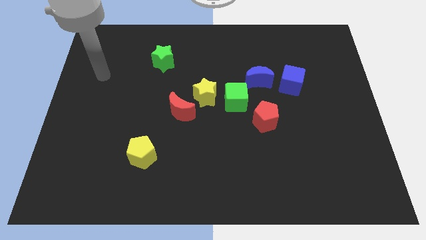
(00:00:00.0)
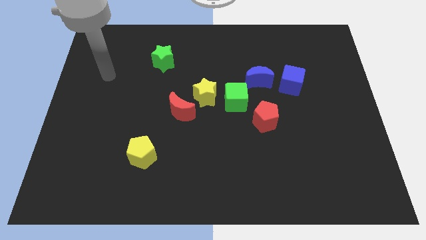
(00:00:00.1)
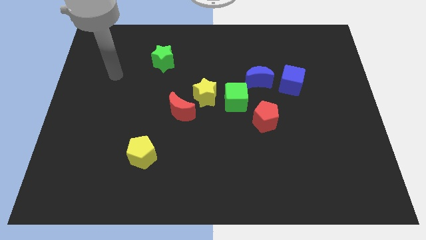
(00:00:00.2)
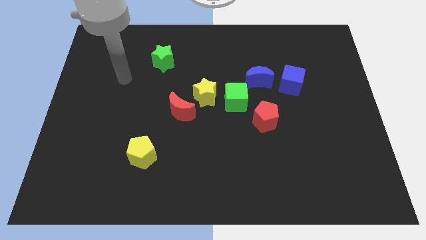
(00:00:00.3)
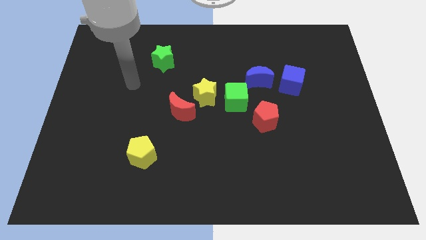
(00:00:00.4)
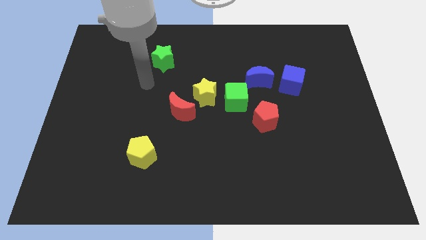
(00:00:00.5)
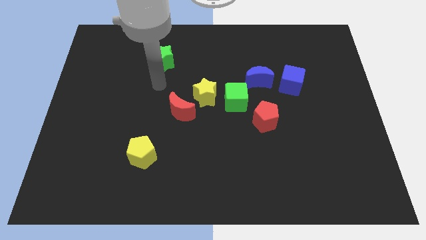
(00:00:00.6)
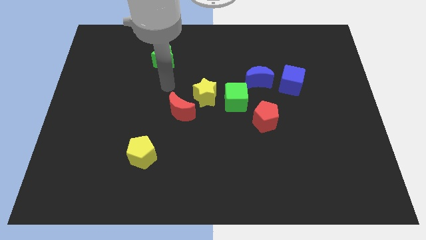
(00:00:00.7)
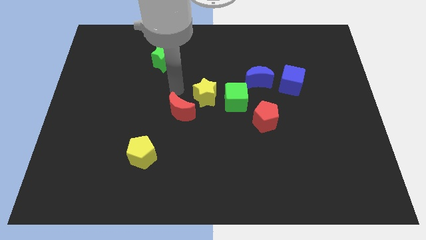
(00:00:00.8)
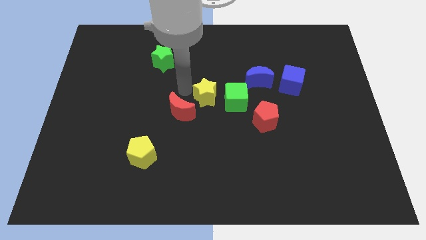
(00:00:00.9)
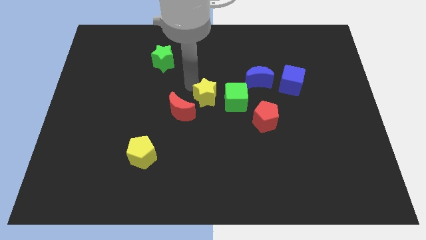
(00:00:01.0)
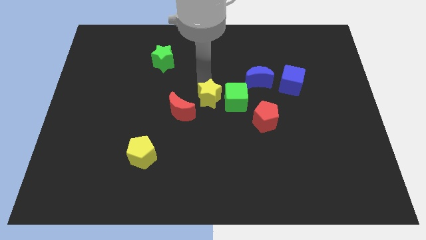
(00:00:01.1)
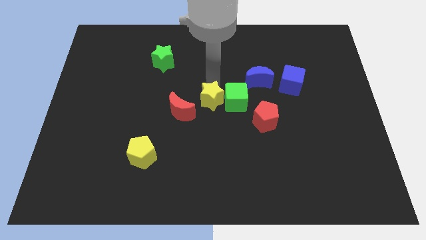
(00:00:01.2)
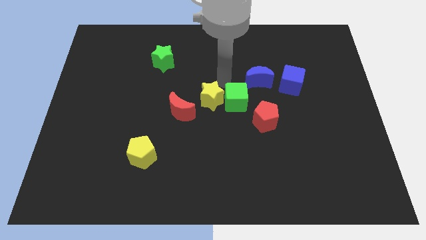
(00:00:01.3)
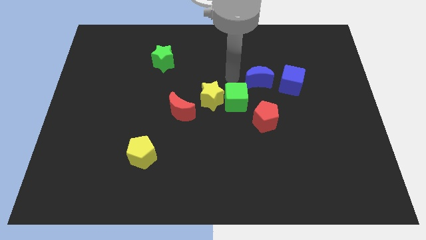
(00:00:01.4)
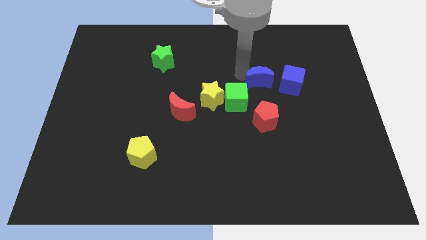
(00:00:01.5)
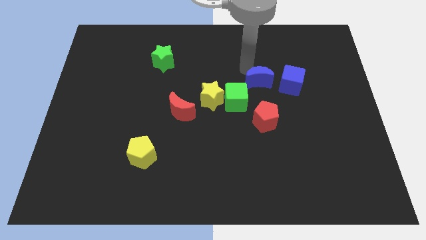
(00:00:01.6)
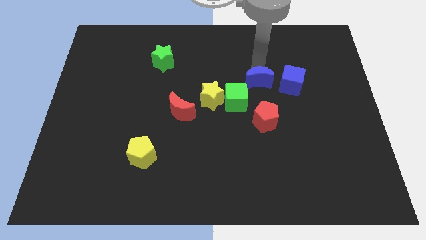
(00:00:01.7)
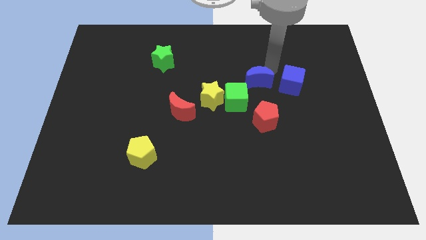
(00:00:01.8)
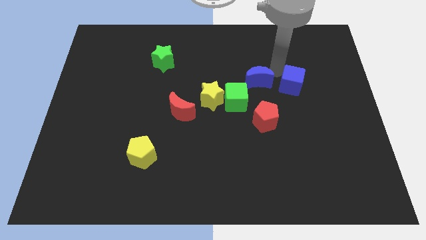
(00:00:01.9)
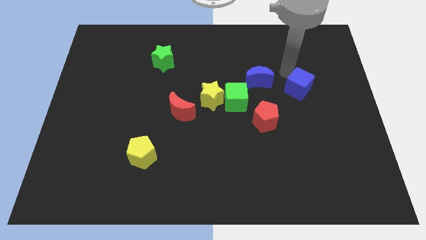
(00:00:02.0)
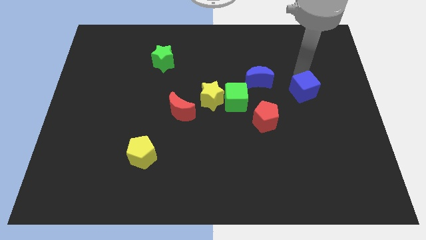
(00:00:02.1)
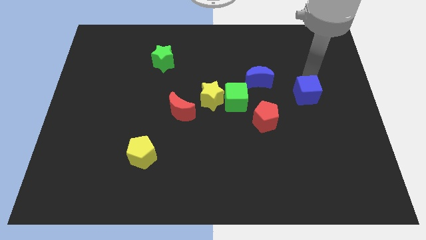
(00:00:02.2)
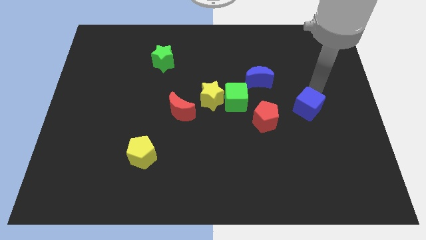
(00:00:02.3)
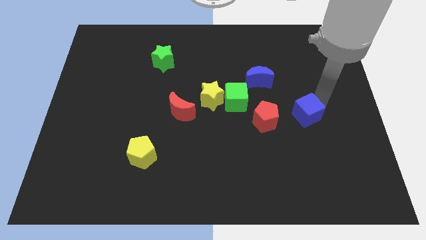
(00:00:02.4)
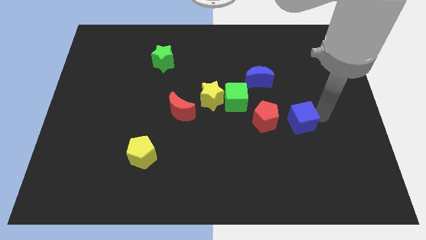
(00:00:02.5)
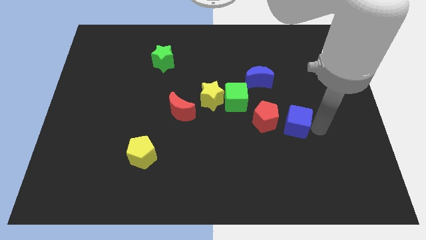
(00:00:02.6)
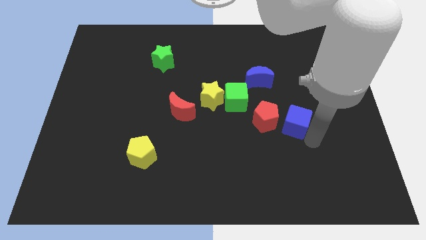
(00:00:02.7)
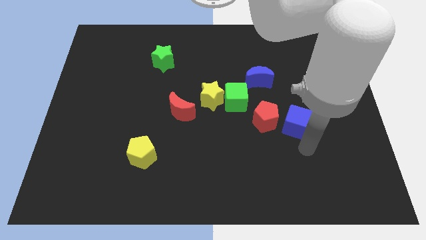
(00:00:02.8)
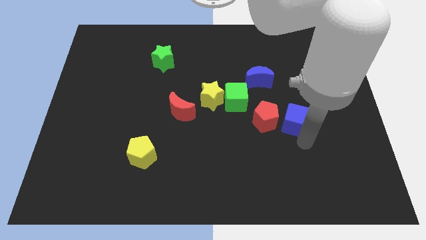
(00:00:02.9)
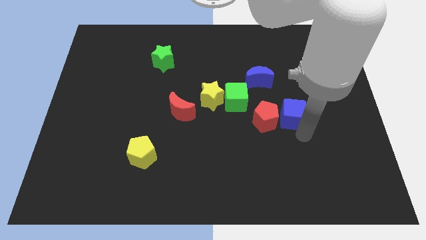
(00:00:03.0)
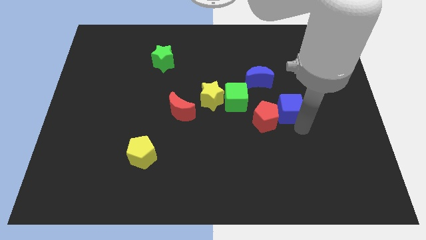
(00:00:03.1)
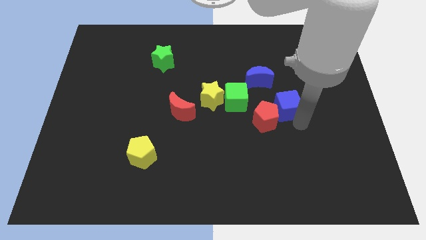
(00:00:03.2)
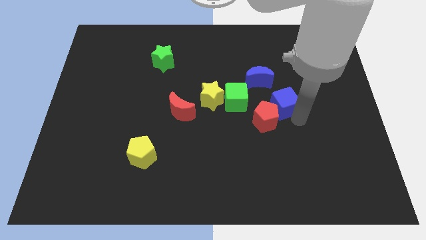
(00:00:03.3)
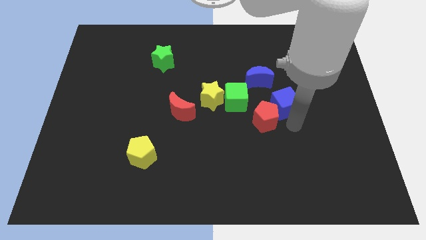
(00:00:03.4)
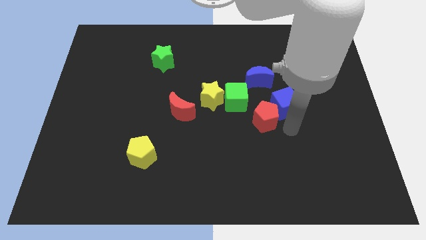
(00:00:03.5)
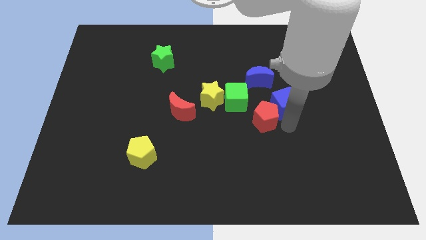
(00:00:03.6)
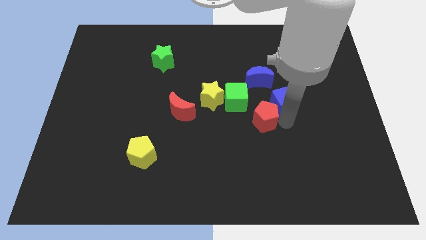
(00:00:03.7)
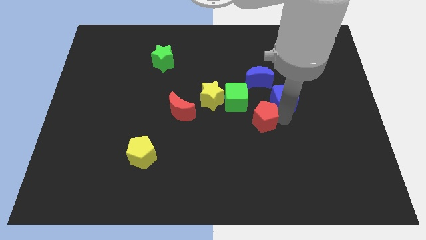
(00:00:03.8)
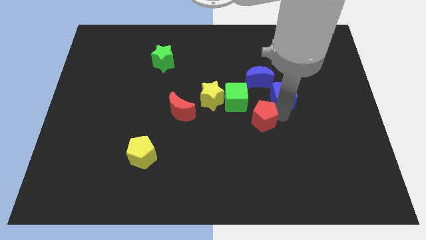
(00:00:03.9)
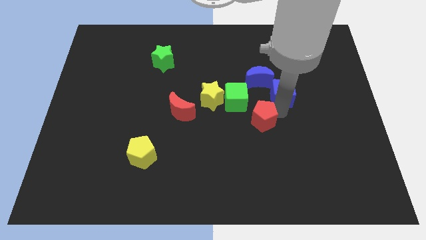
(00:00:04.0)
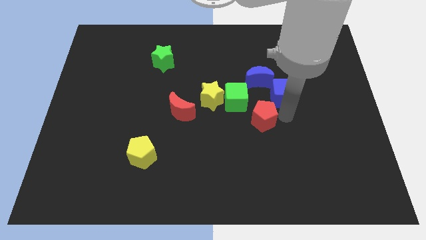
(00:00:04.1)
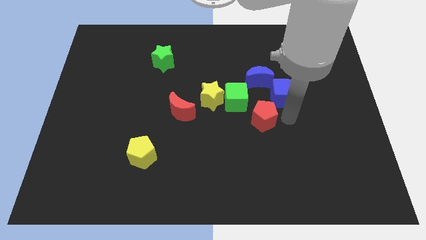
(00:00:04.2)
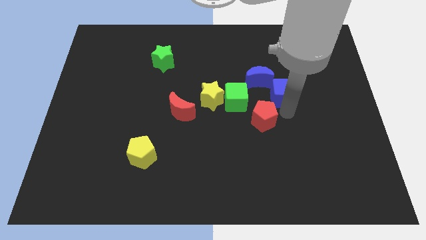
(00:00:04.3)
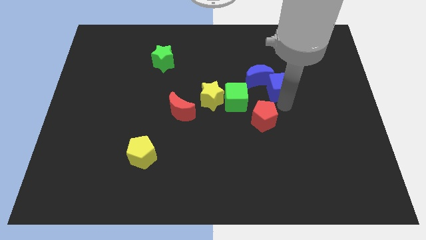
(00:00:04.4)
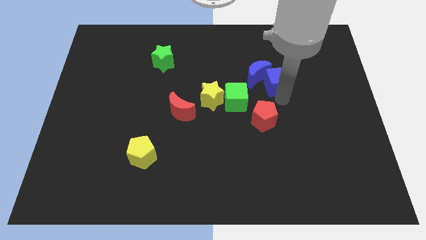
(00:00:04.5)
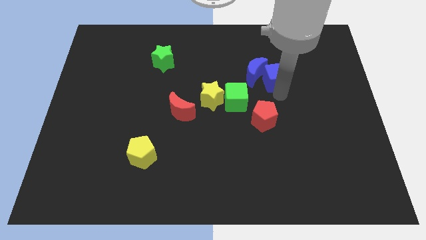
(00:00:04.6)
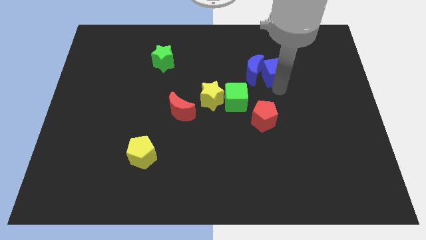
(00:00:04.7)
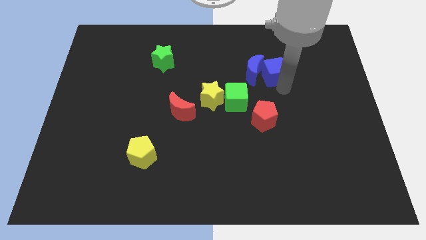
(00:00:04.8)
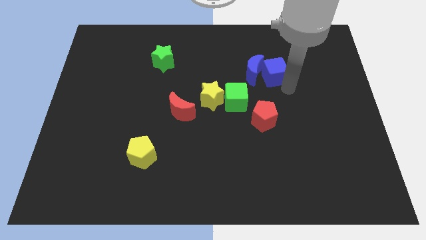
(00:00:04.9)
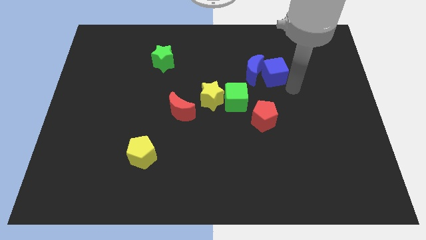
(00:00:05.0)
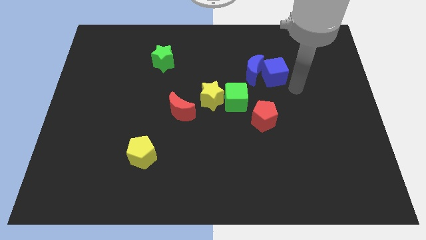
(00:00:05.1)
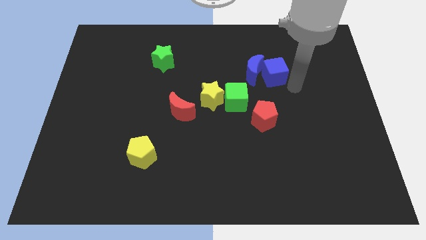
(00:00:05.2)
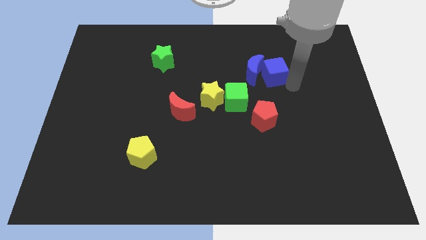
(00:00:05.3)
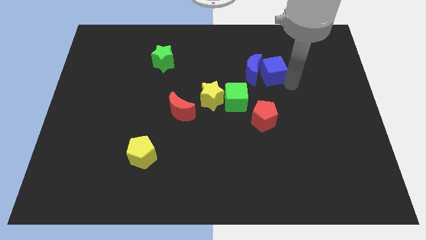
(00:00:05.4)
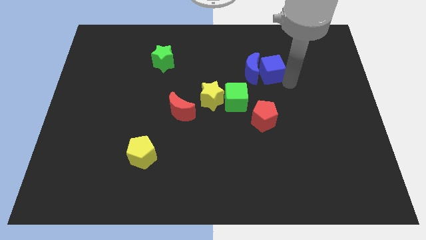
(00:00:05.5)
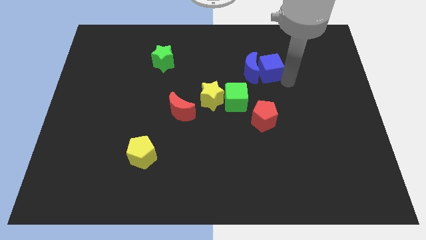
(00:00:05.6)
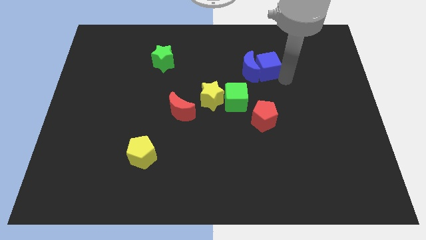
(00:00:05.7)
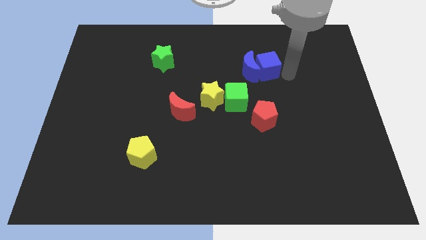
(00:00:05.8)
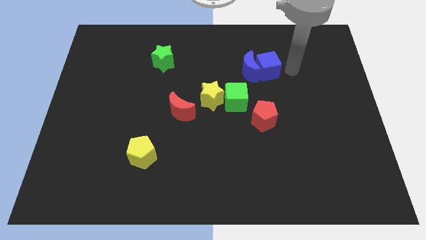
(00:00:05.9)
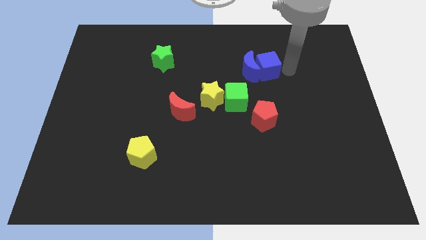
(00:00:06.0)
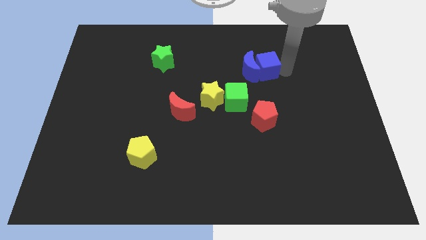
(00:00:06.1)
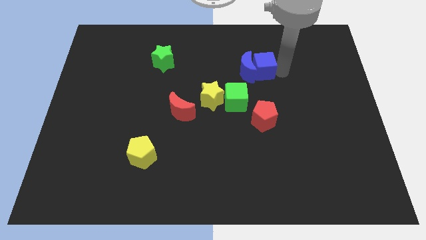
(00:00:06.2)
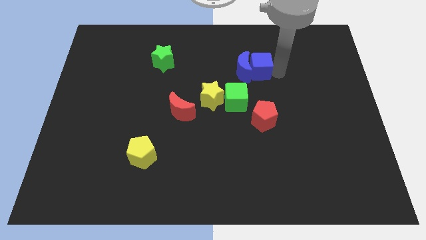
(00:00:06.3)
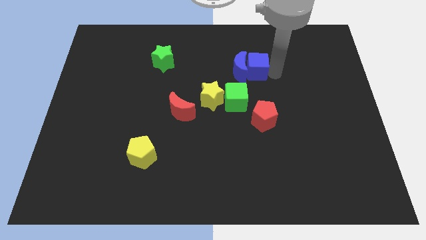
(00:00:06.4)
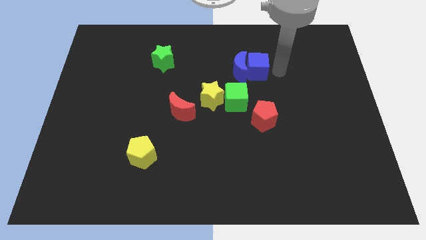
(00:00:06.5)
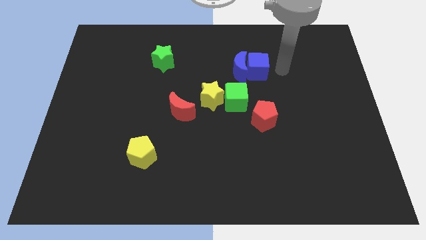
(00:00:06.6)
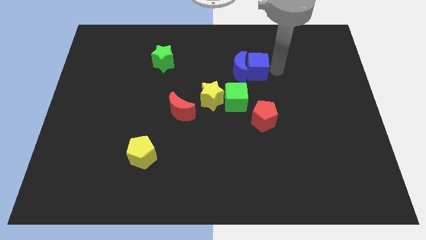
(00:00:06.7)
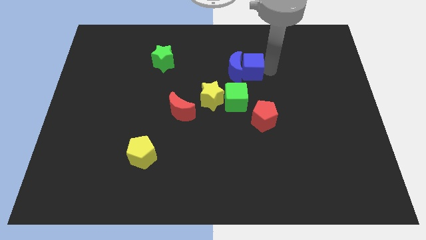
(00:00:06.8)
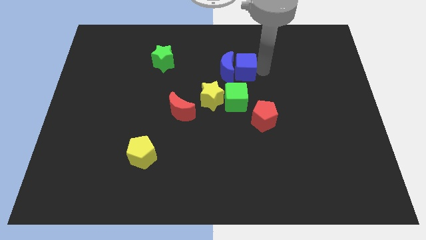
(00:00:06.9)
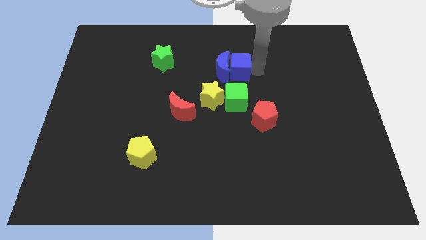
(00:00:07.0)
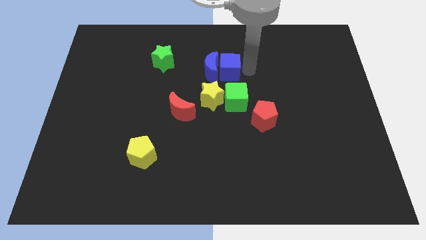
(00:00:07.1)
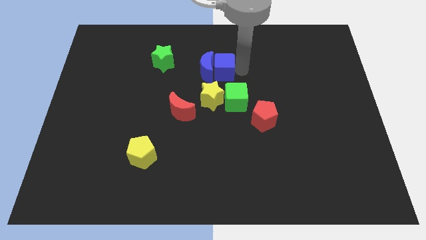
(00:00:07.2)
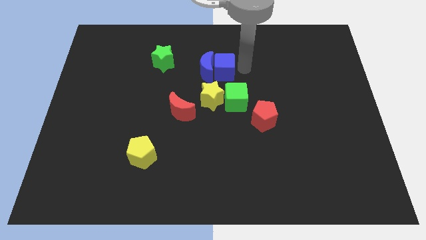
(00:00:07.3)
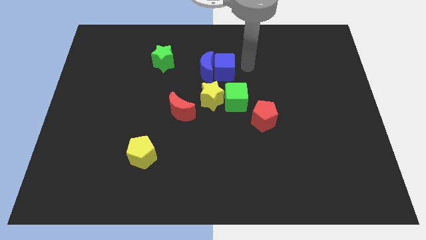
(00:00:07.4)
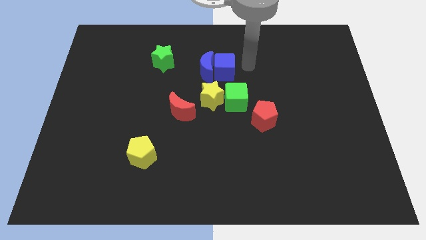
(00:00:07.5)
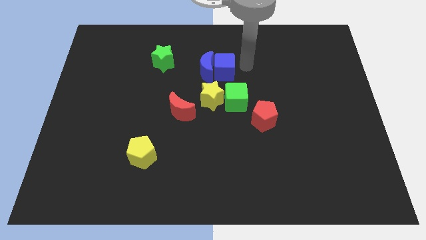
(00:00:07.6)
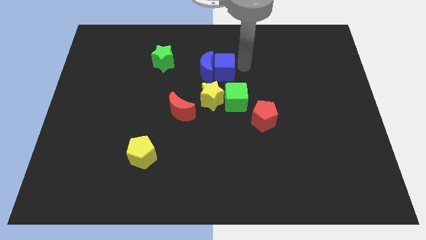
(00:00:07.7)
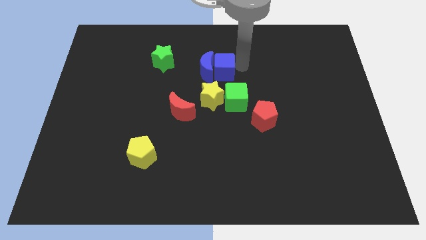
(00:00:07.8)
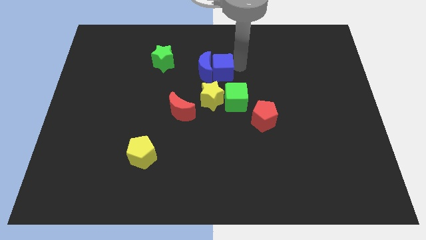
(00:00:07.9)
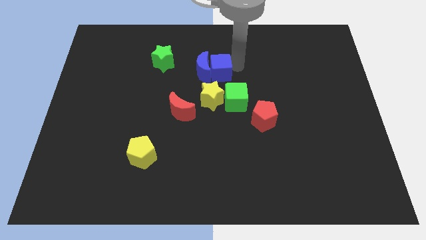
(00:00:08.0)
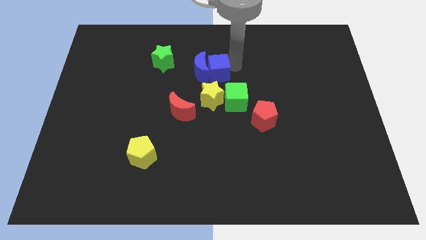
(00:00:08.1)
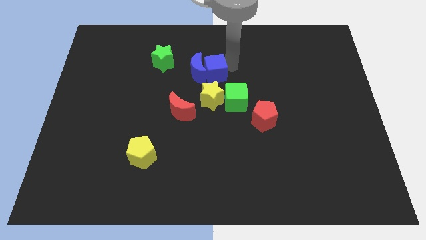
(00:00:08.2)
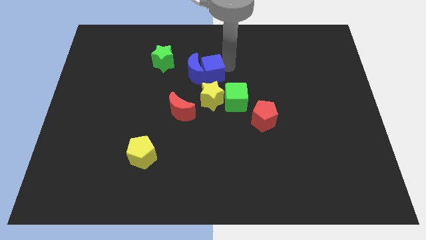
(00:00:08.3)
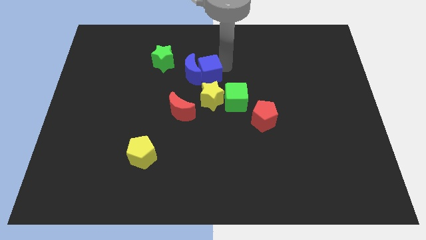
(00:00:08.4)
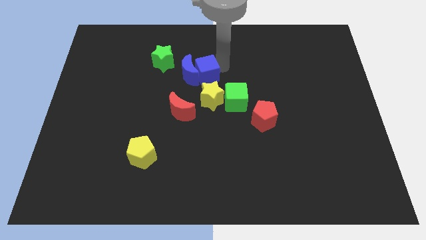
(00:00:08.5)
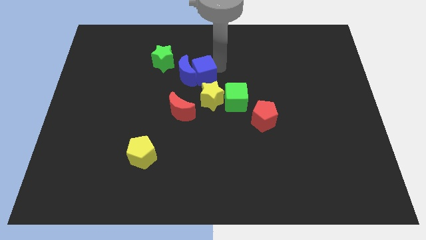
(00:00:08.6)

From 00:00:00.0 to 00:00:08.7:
move the blue cube to the top left of the yellow star
